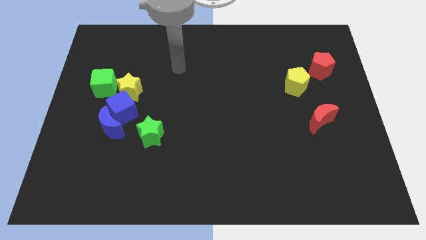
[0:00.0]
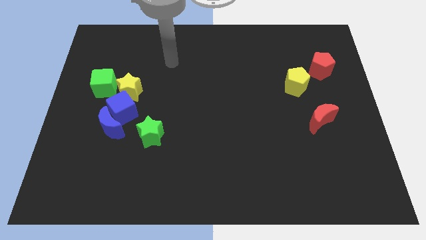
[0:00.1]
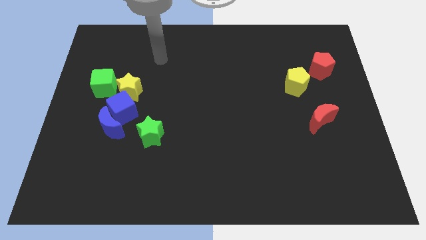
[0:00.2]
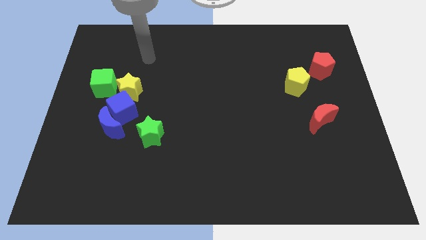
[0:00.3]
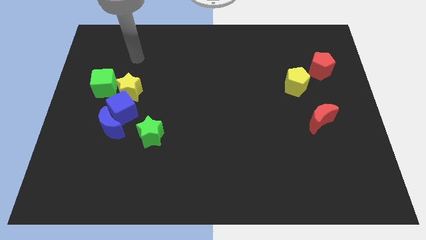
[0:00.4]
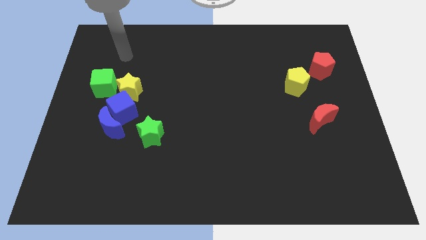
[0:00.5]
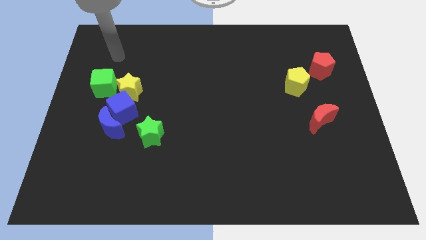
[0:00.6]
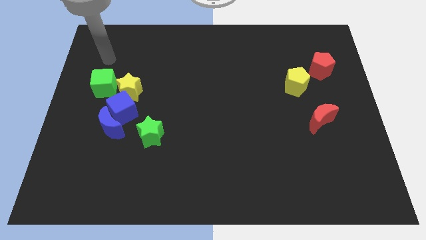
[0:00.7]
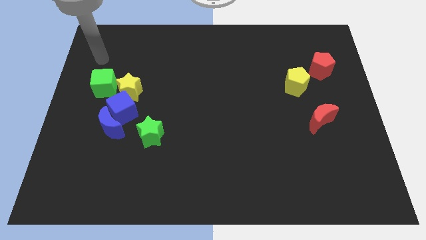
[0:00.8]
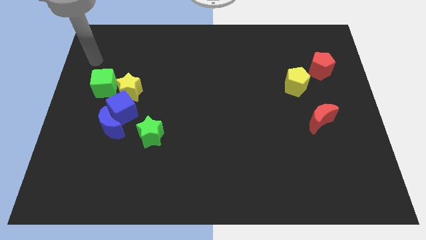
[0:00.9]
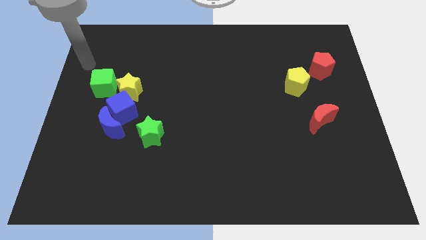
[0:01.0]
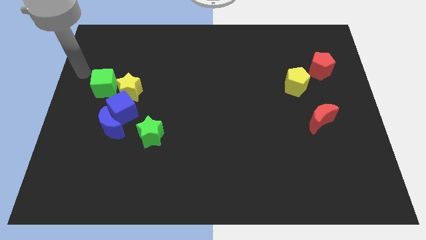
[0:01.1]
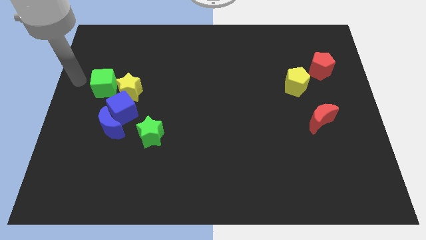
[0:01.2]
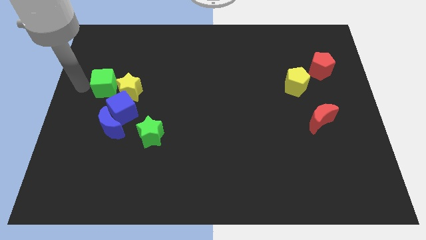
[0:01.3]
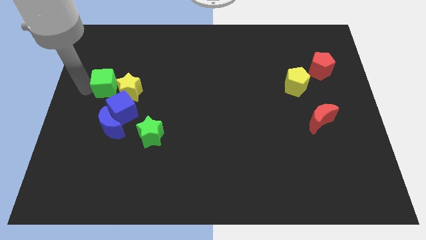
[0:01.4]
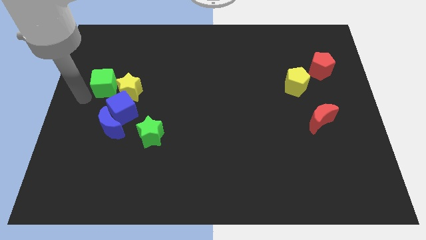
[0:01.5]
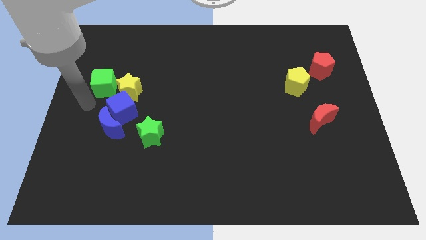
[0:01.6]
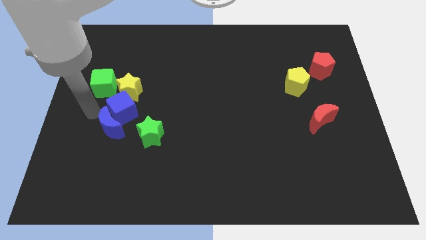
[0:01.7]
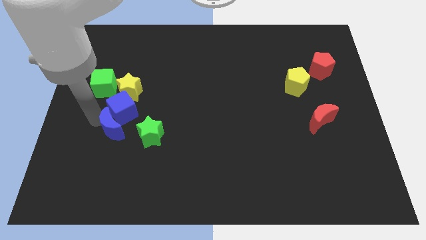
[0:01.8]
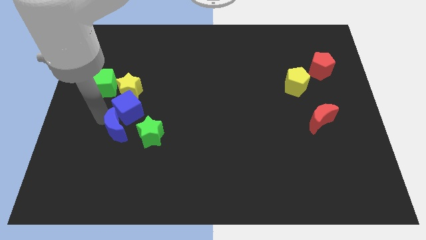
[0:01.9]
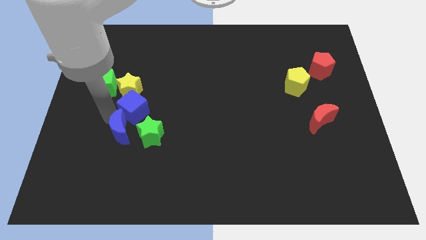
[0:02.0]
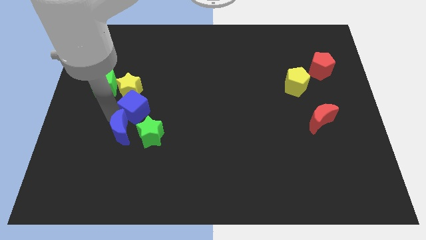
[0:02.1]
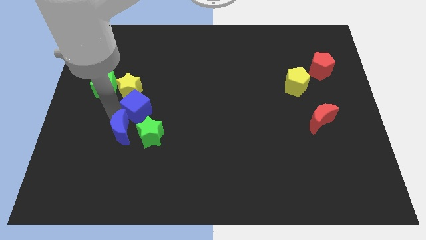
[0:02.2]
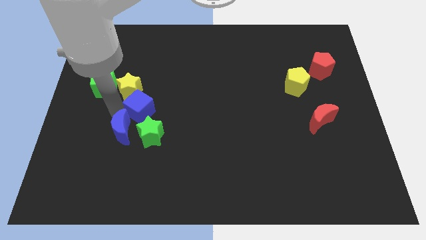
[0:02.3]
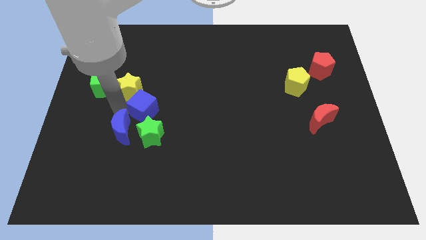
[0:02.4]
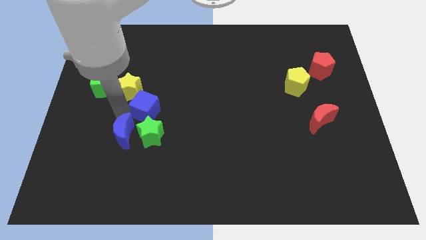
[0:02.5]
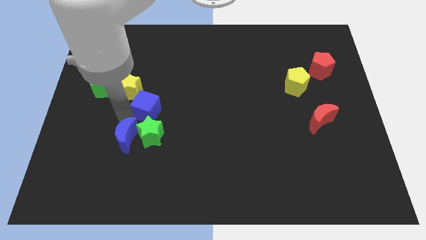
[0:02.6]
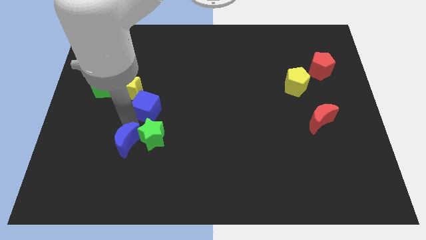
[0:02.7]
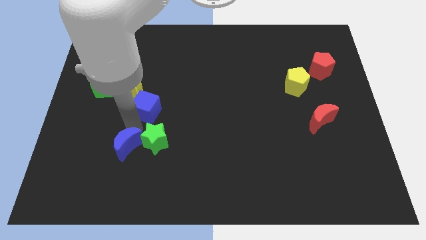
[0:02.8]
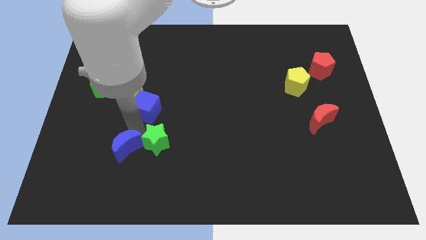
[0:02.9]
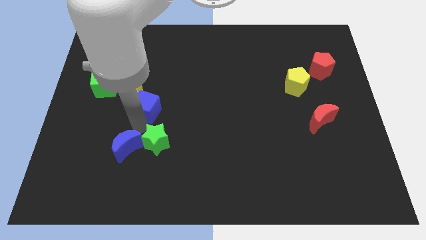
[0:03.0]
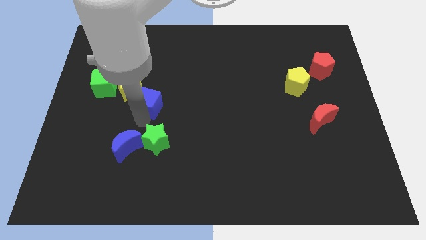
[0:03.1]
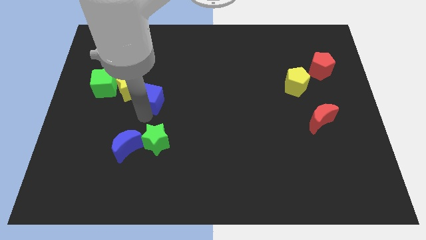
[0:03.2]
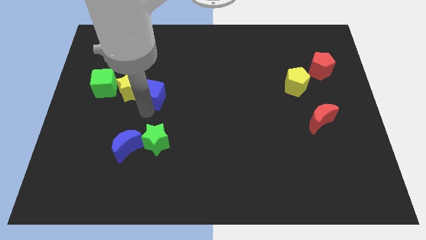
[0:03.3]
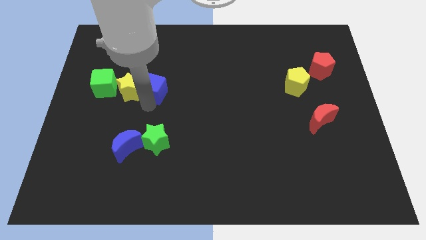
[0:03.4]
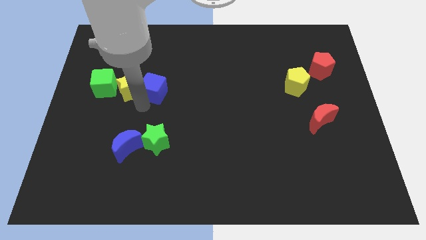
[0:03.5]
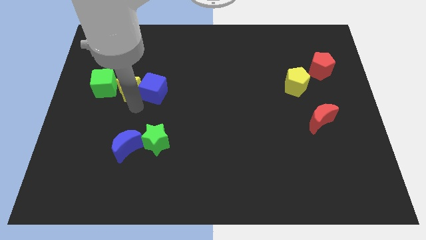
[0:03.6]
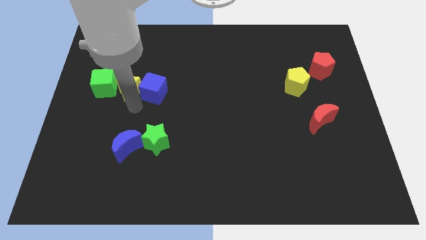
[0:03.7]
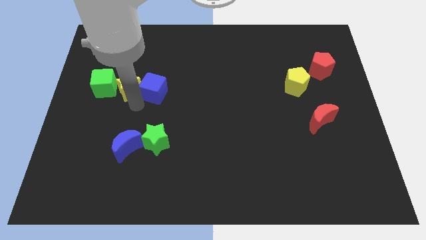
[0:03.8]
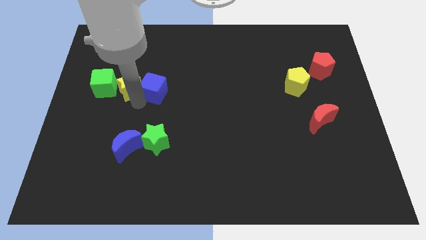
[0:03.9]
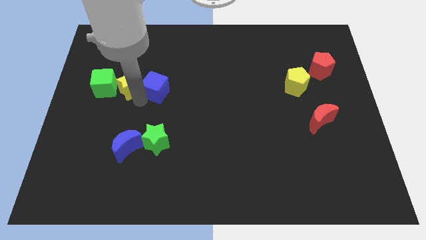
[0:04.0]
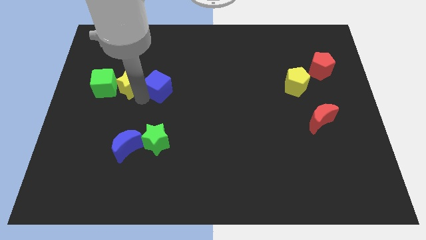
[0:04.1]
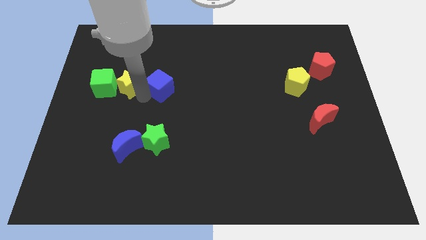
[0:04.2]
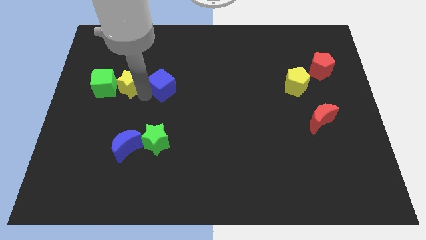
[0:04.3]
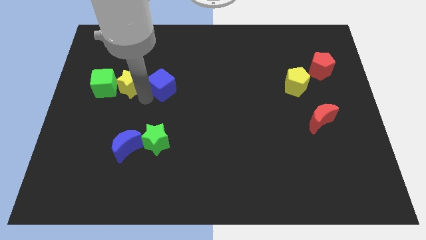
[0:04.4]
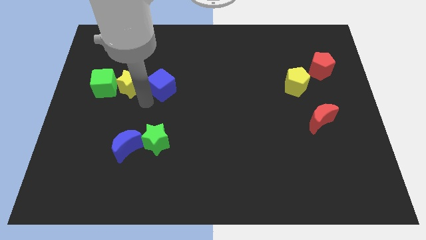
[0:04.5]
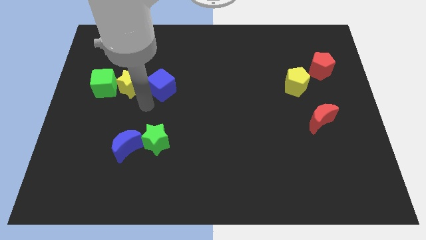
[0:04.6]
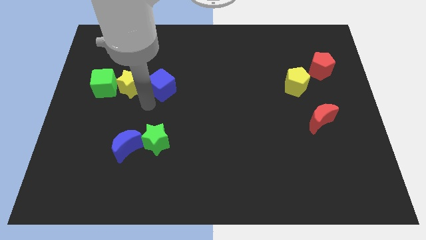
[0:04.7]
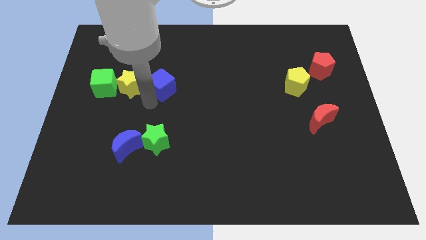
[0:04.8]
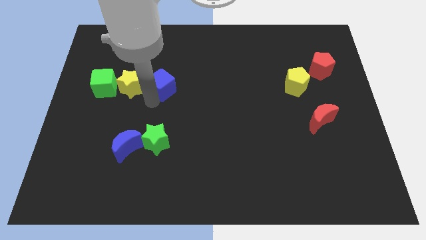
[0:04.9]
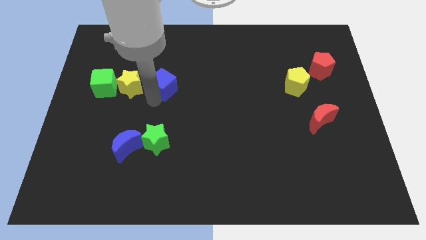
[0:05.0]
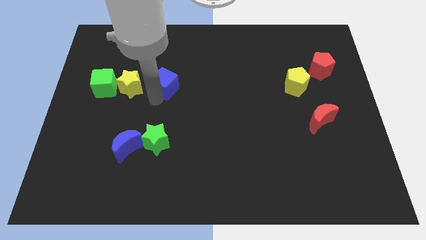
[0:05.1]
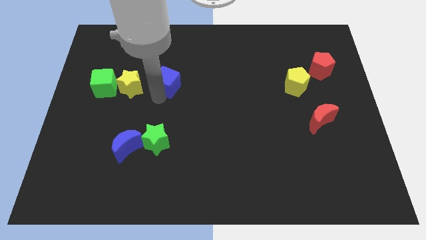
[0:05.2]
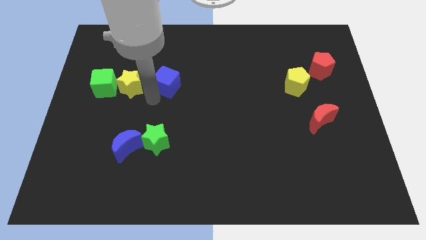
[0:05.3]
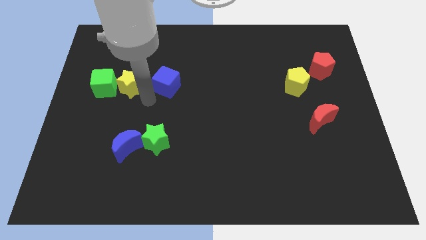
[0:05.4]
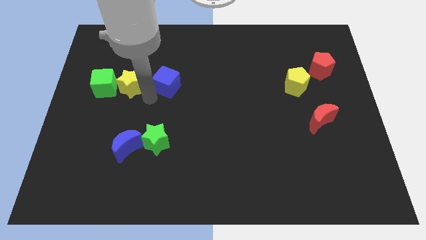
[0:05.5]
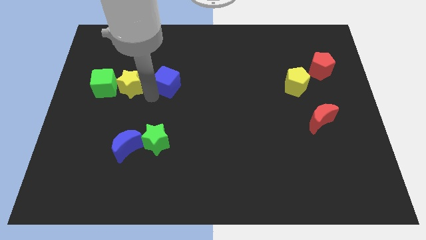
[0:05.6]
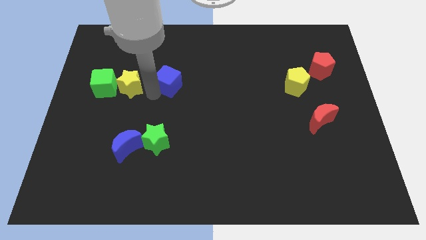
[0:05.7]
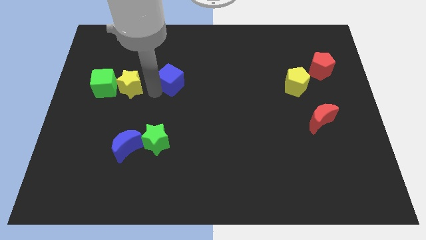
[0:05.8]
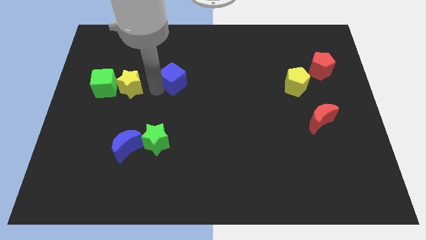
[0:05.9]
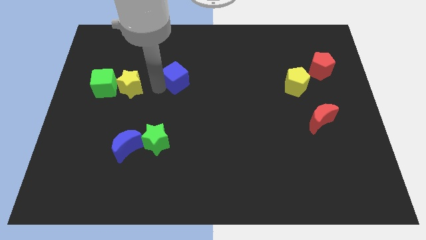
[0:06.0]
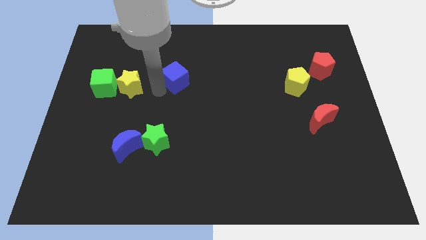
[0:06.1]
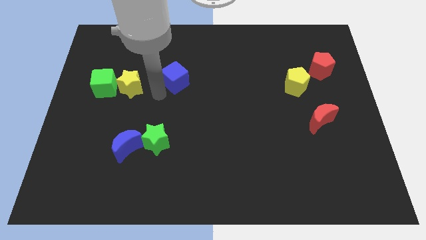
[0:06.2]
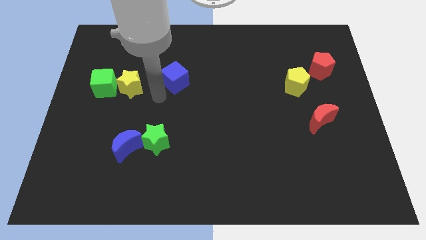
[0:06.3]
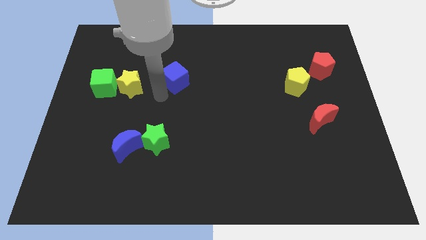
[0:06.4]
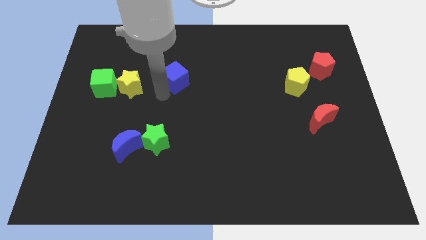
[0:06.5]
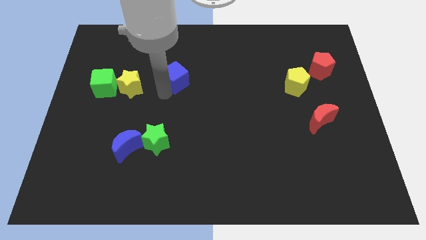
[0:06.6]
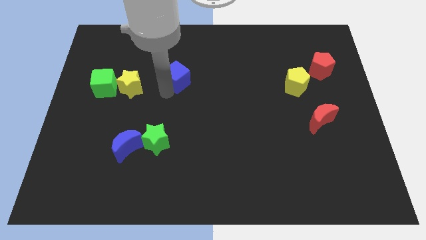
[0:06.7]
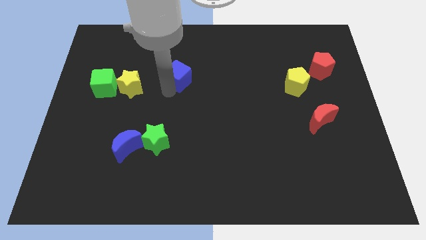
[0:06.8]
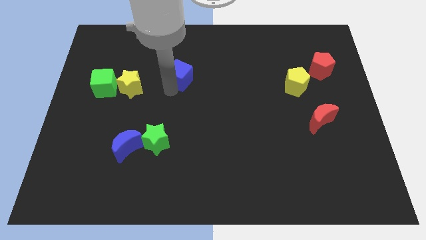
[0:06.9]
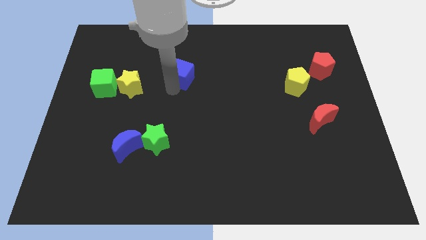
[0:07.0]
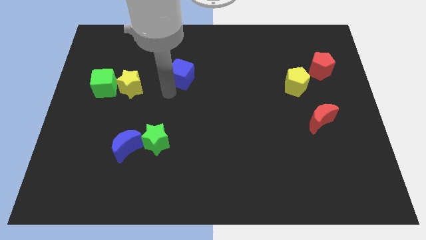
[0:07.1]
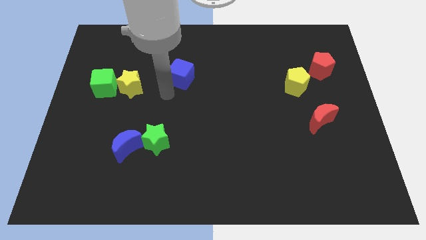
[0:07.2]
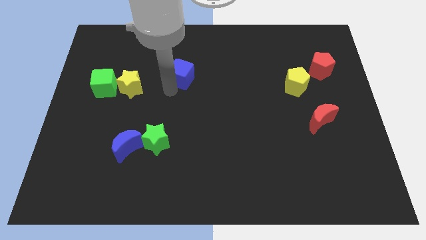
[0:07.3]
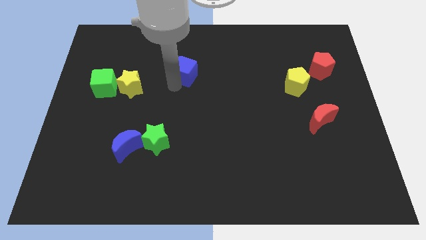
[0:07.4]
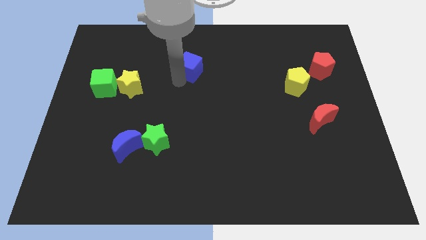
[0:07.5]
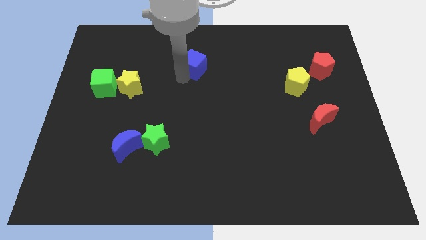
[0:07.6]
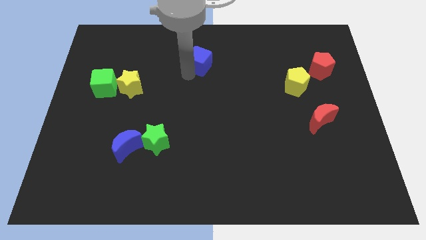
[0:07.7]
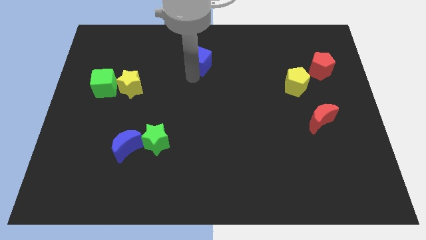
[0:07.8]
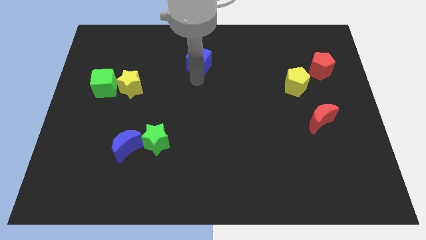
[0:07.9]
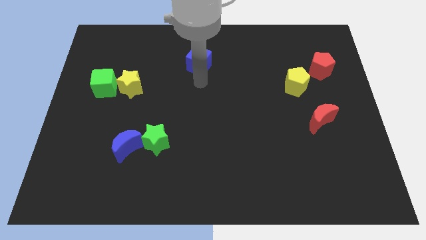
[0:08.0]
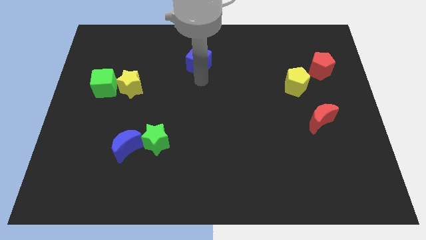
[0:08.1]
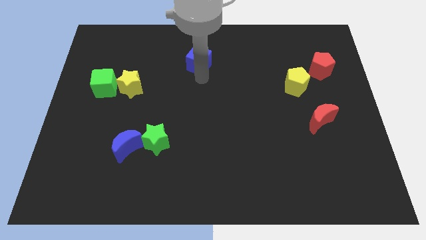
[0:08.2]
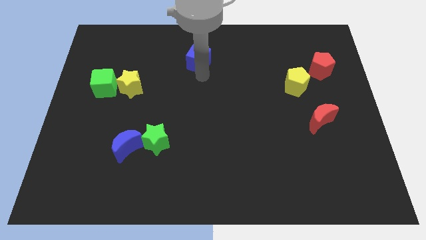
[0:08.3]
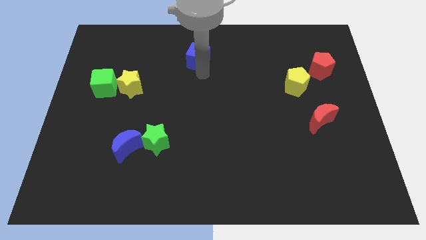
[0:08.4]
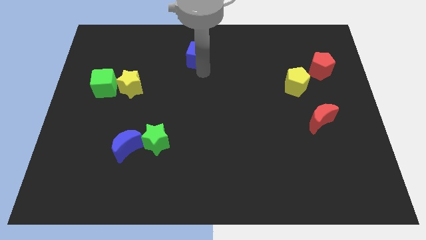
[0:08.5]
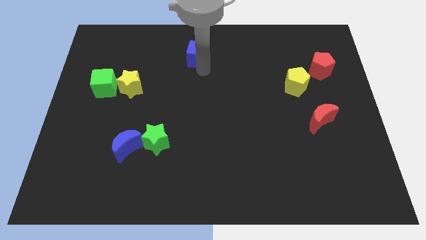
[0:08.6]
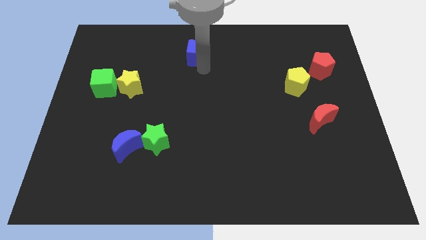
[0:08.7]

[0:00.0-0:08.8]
move the blue cube to the top side
